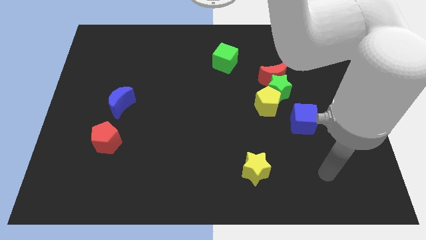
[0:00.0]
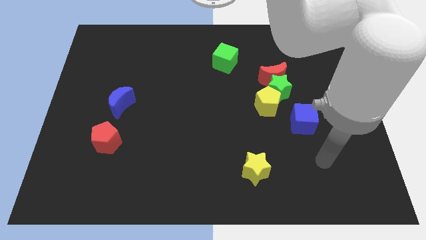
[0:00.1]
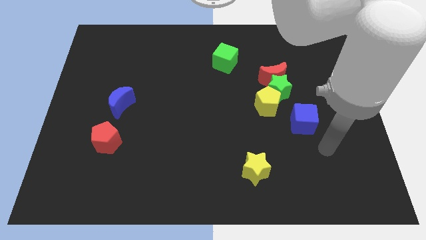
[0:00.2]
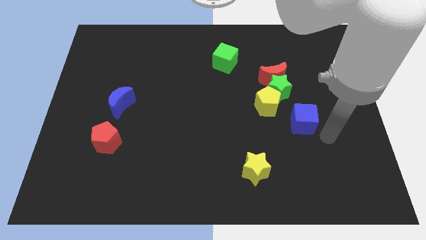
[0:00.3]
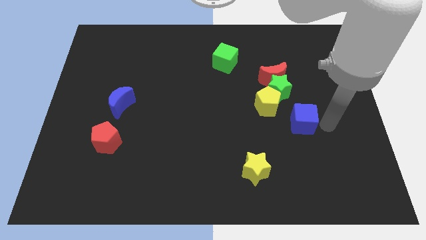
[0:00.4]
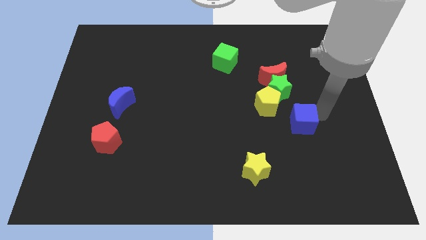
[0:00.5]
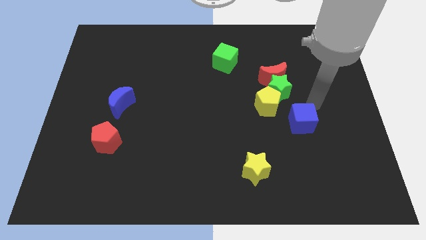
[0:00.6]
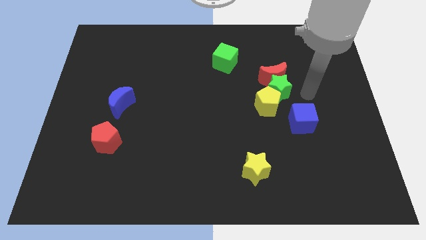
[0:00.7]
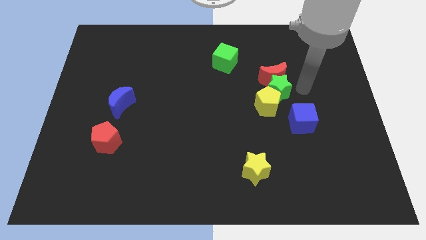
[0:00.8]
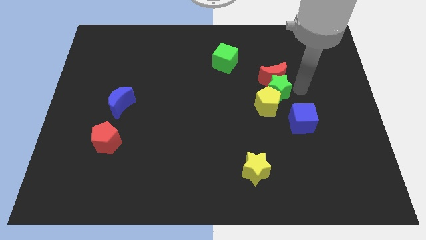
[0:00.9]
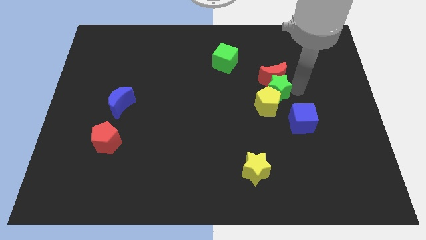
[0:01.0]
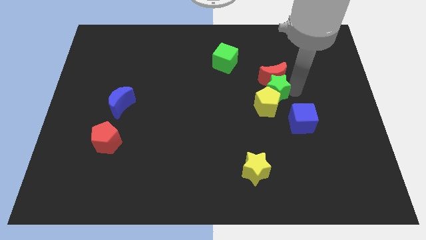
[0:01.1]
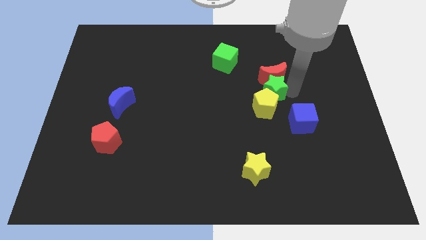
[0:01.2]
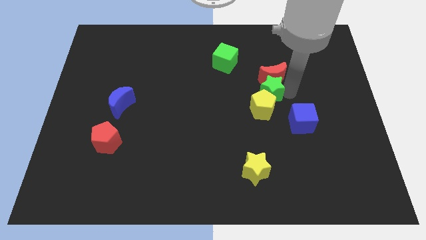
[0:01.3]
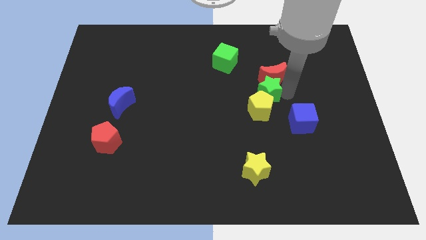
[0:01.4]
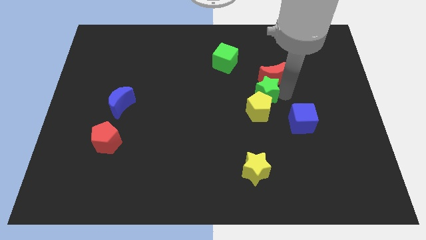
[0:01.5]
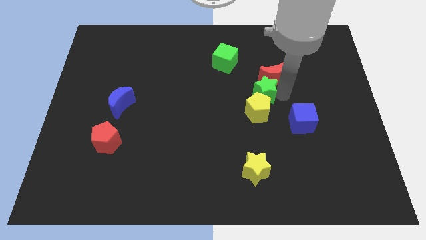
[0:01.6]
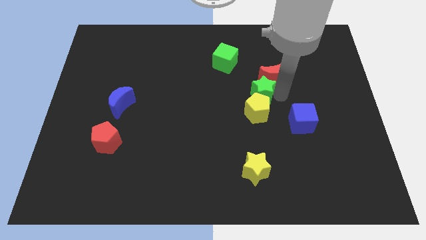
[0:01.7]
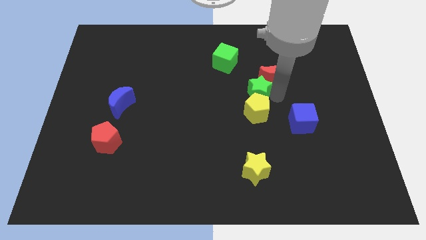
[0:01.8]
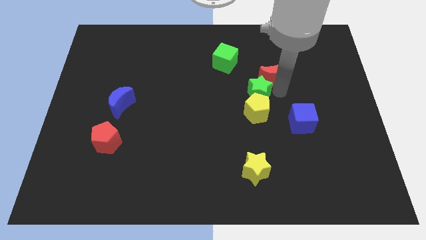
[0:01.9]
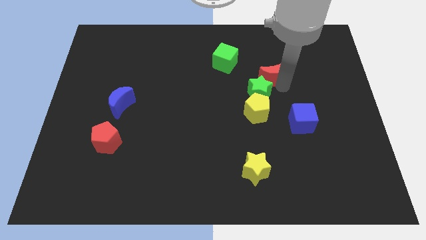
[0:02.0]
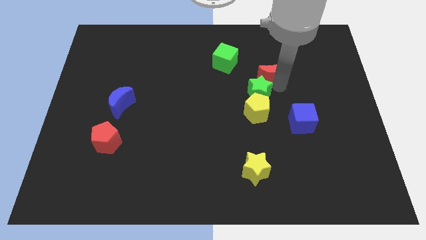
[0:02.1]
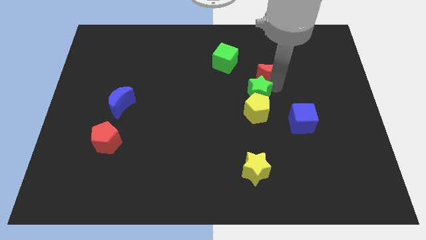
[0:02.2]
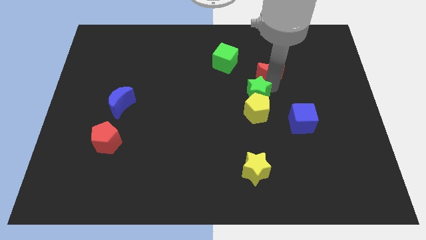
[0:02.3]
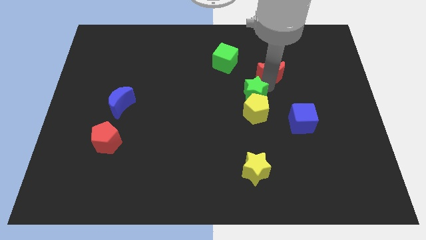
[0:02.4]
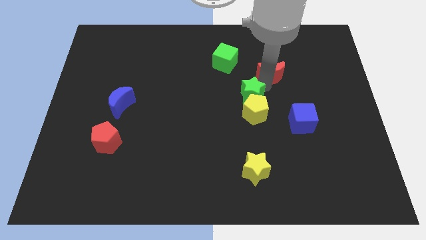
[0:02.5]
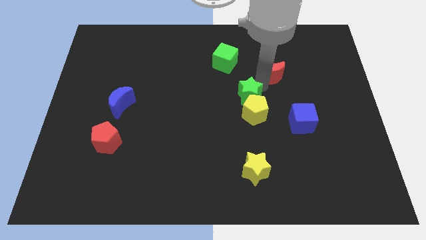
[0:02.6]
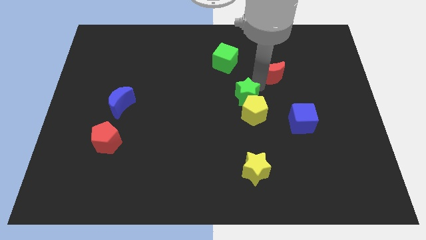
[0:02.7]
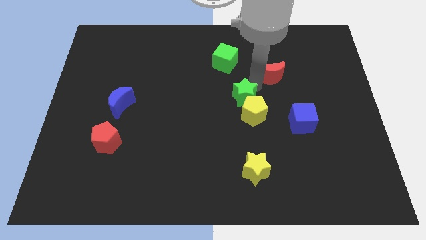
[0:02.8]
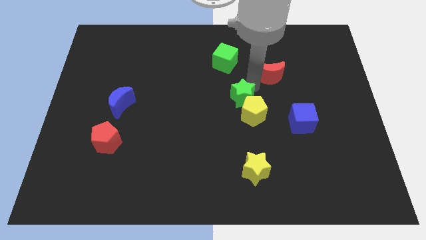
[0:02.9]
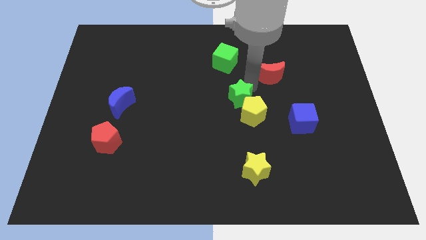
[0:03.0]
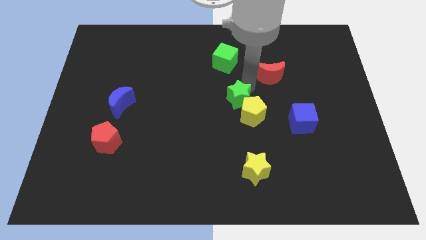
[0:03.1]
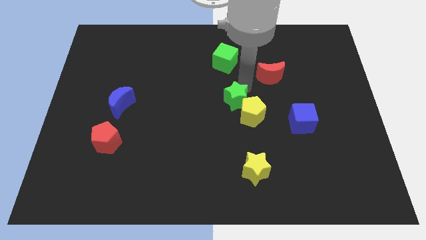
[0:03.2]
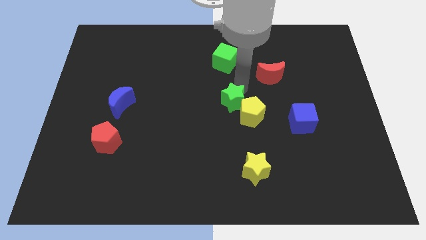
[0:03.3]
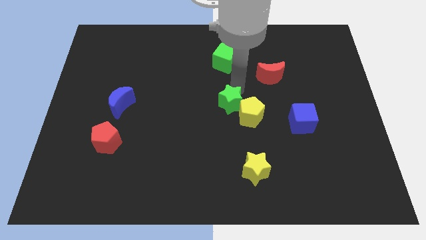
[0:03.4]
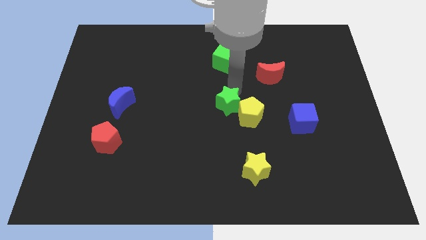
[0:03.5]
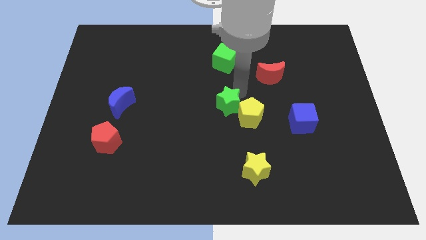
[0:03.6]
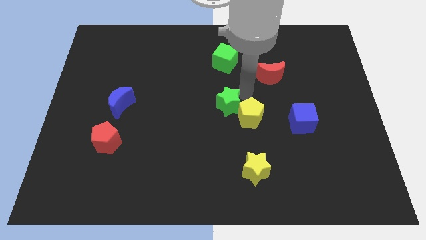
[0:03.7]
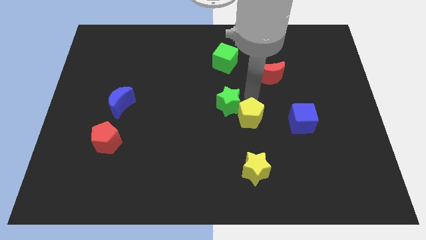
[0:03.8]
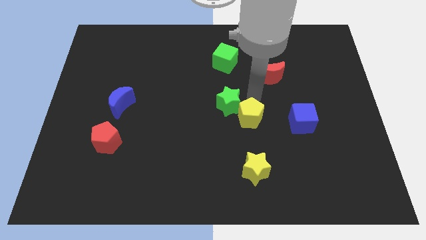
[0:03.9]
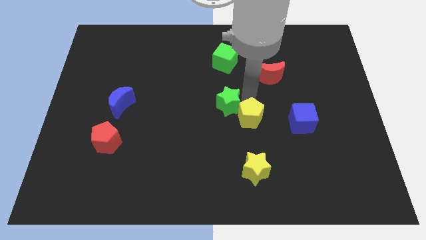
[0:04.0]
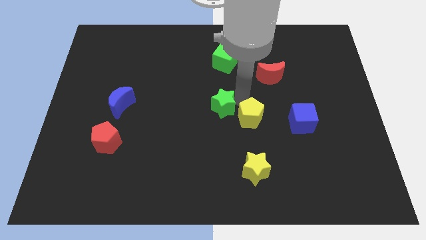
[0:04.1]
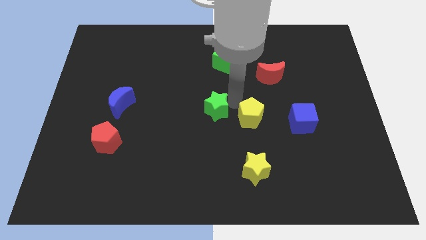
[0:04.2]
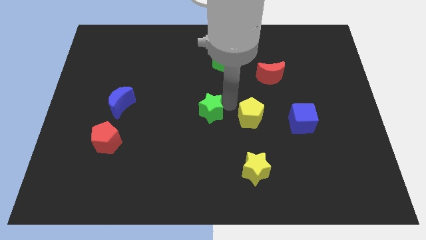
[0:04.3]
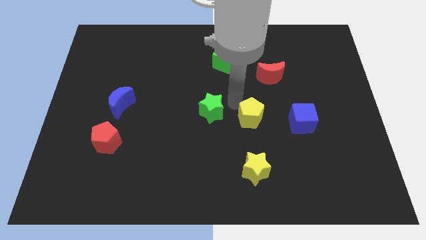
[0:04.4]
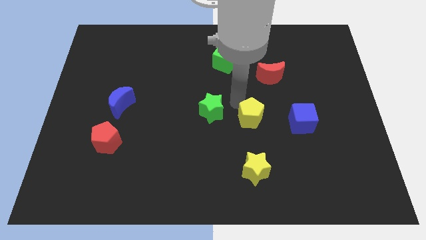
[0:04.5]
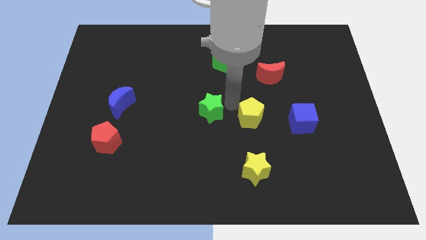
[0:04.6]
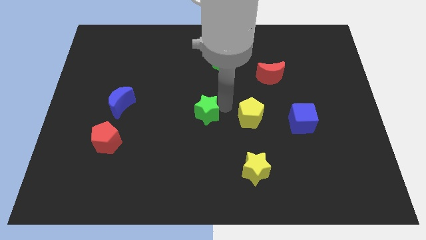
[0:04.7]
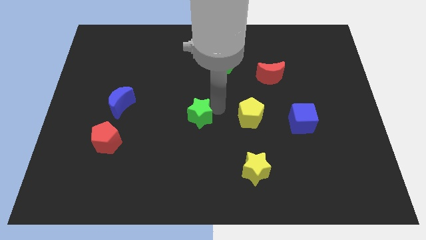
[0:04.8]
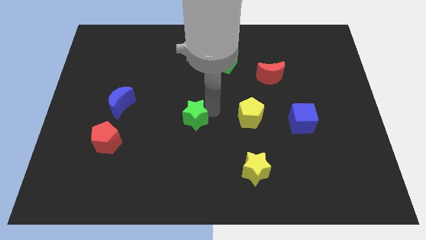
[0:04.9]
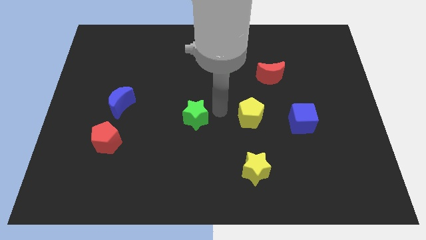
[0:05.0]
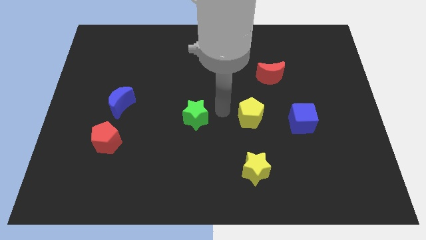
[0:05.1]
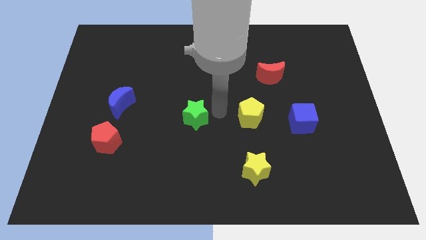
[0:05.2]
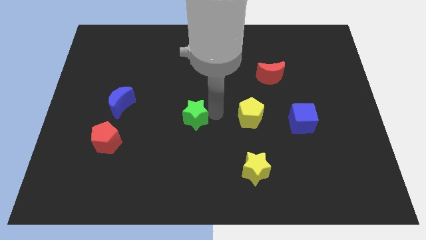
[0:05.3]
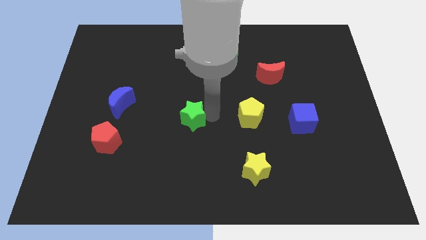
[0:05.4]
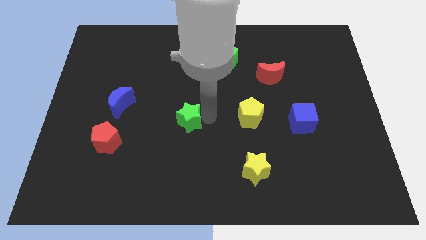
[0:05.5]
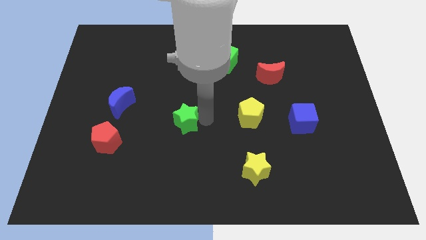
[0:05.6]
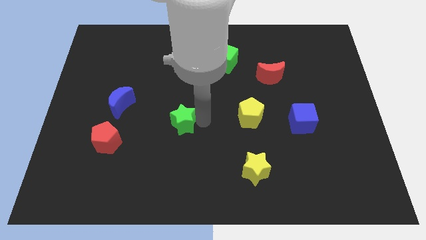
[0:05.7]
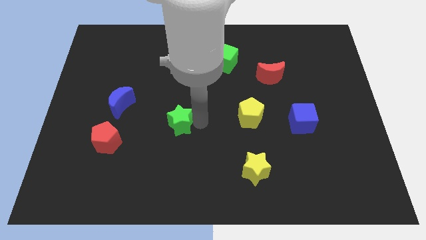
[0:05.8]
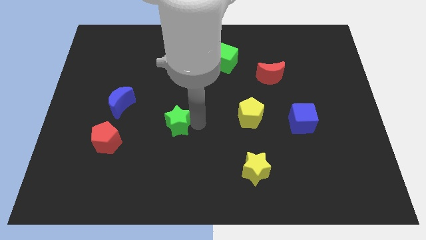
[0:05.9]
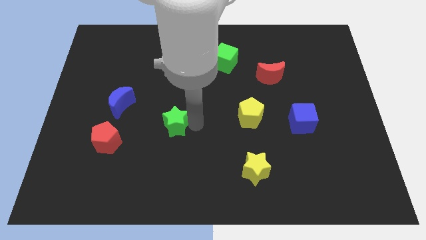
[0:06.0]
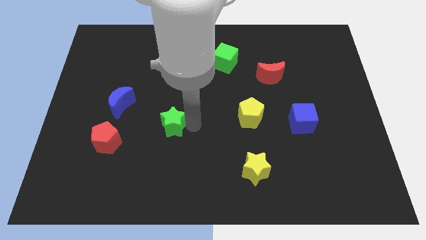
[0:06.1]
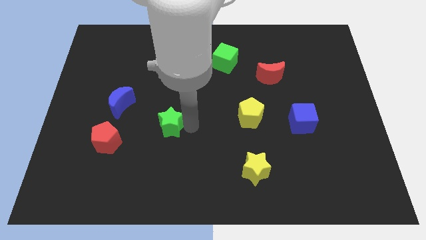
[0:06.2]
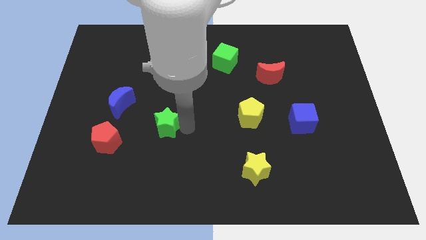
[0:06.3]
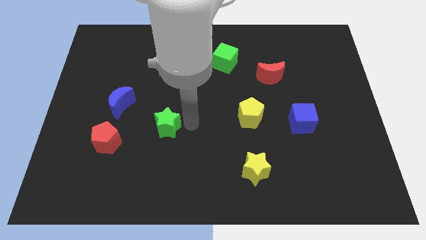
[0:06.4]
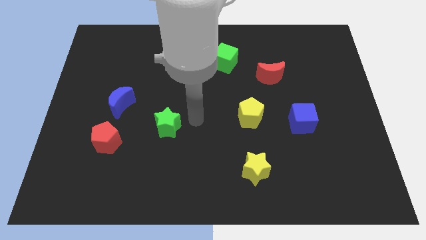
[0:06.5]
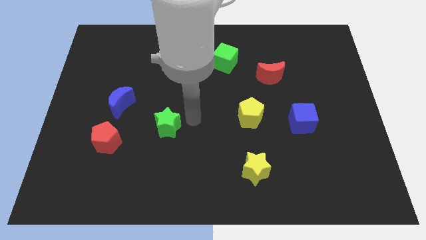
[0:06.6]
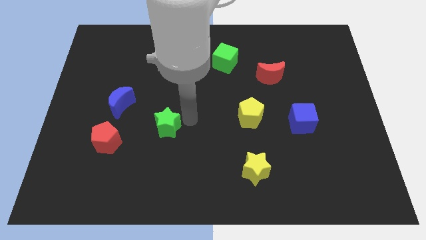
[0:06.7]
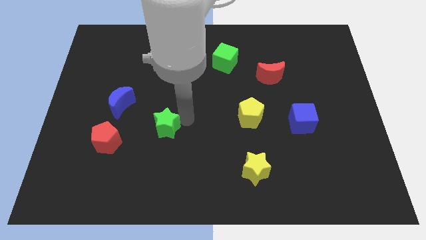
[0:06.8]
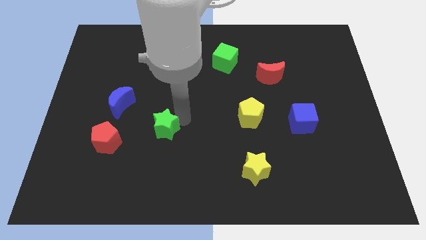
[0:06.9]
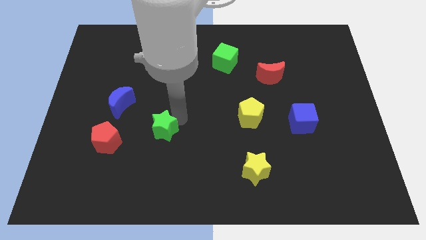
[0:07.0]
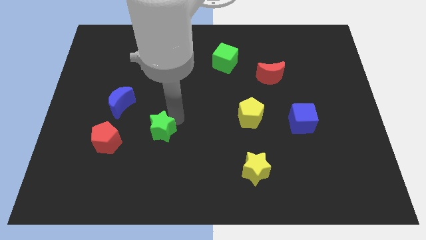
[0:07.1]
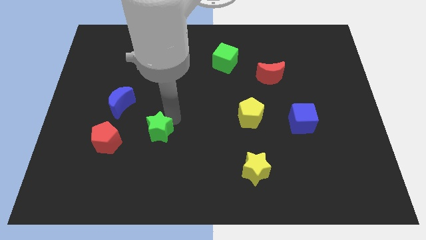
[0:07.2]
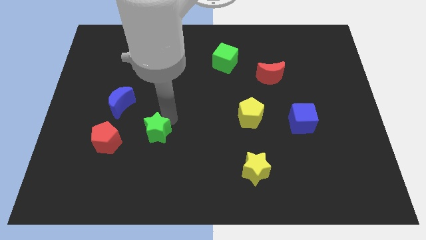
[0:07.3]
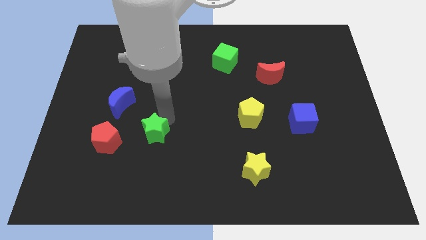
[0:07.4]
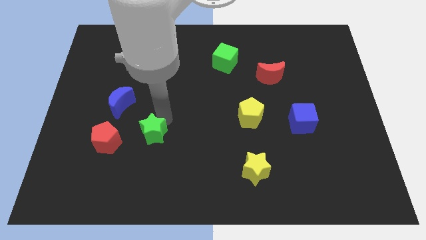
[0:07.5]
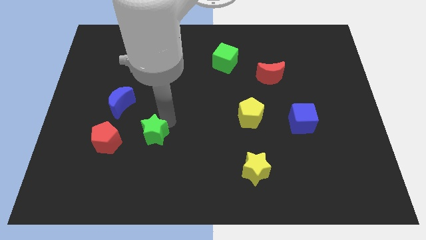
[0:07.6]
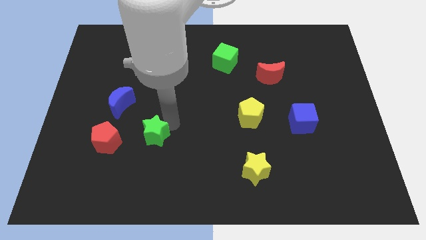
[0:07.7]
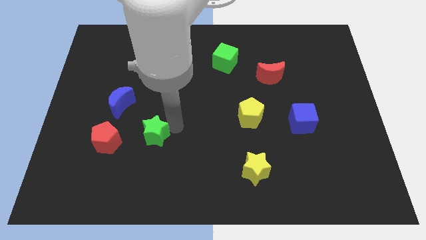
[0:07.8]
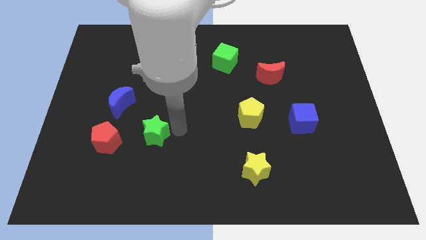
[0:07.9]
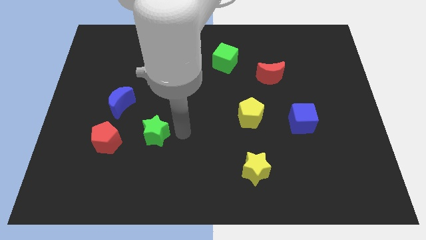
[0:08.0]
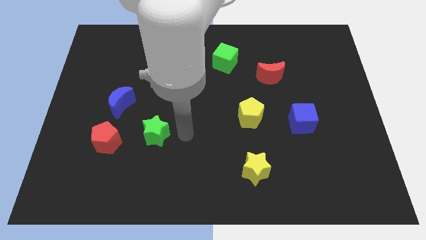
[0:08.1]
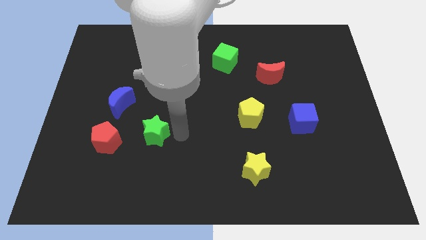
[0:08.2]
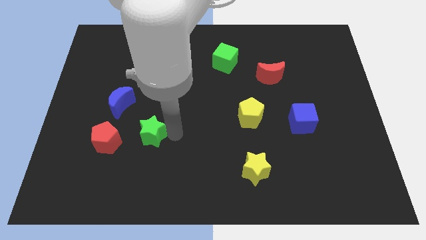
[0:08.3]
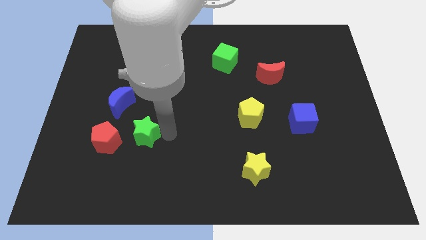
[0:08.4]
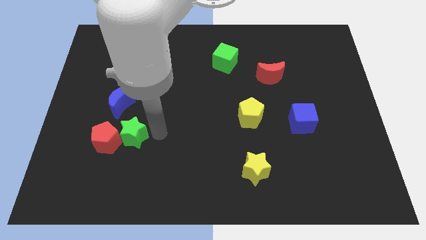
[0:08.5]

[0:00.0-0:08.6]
move the green star next to the red pentagon
